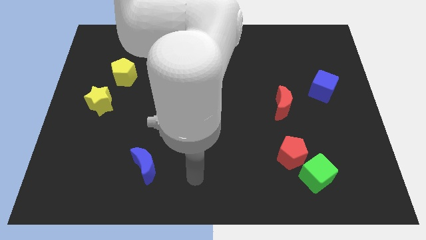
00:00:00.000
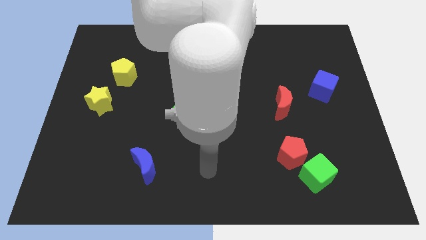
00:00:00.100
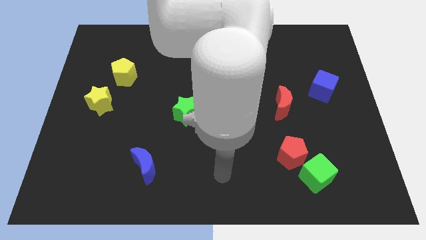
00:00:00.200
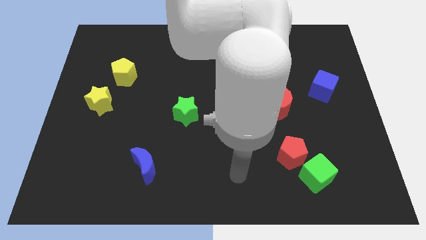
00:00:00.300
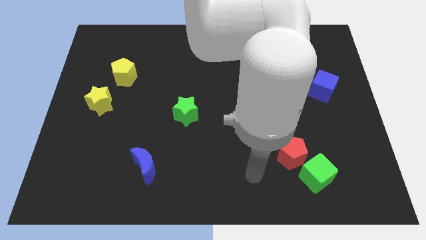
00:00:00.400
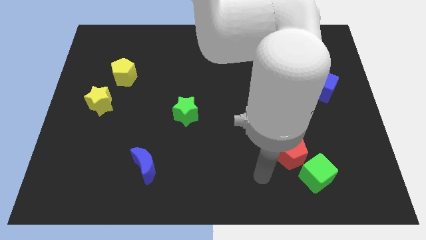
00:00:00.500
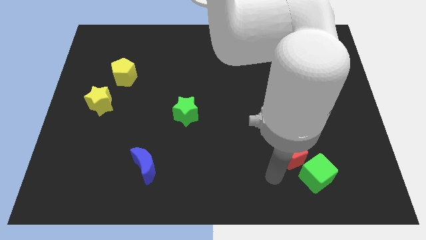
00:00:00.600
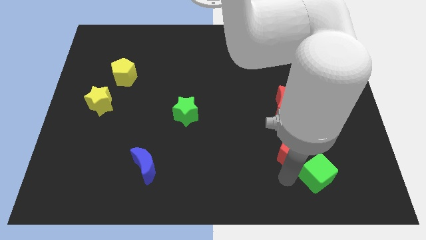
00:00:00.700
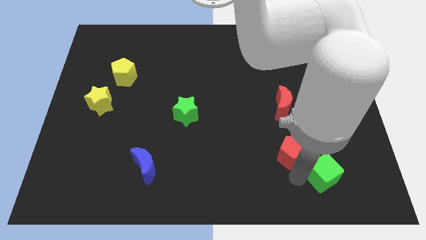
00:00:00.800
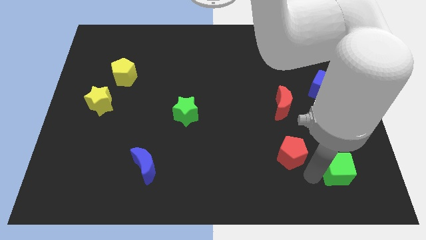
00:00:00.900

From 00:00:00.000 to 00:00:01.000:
separate the red pentagon from the green cube

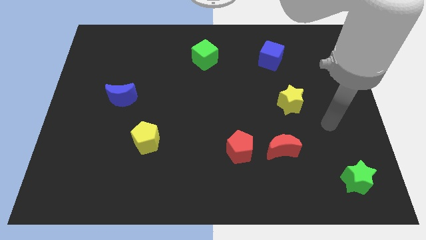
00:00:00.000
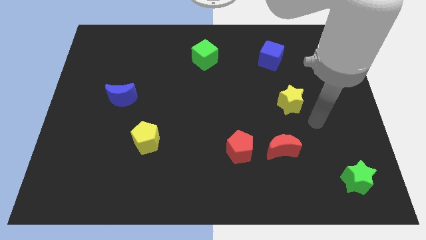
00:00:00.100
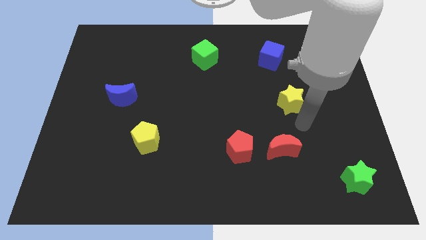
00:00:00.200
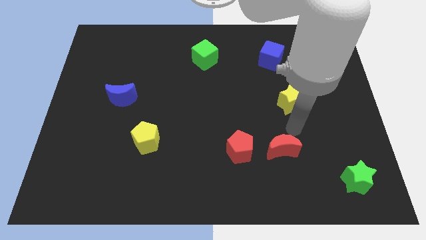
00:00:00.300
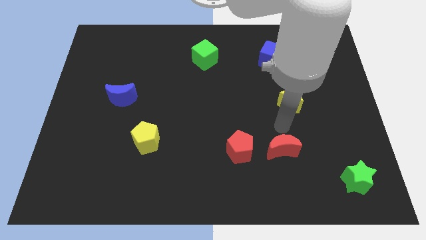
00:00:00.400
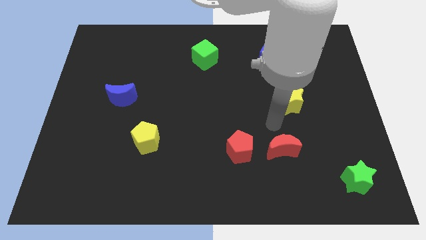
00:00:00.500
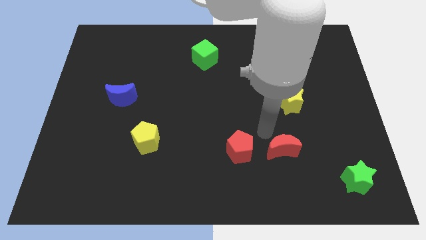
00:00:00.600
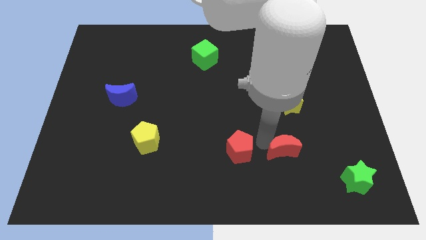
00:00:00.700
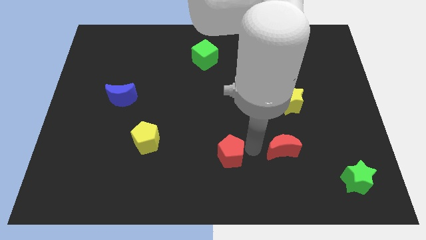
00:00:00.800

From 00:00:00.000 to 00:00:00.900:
move the red moon away from the red pentagon

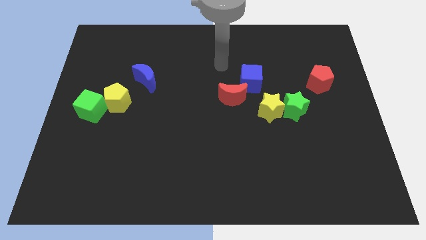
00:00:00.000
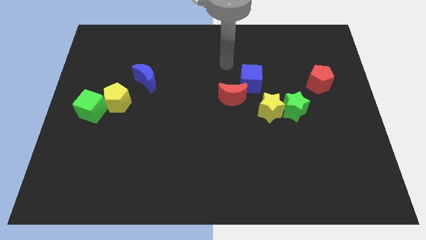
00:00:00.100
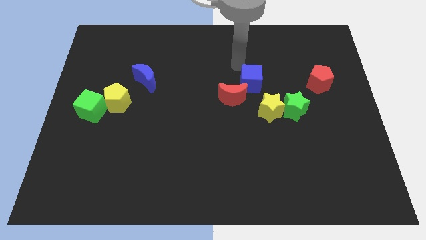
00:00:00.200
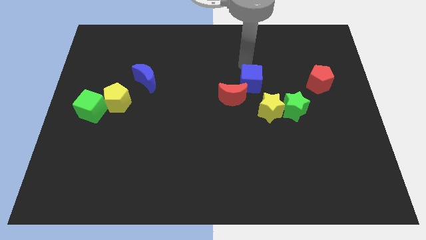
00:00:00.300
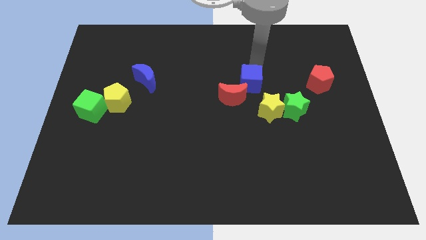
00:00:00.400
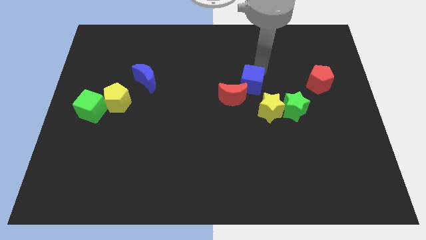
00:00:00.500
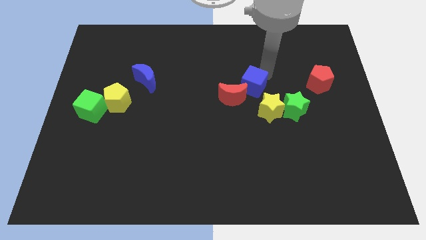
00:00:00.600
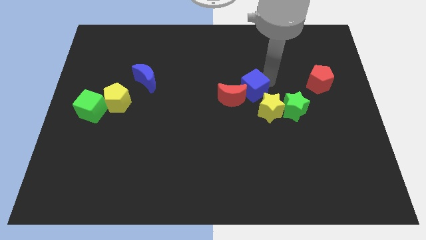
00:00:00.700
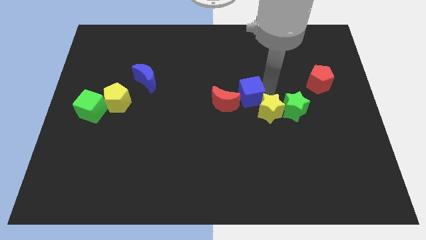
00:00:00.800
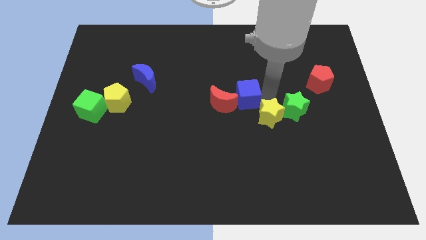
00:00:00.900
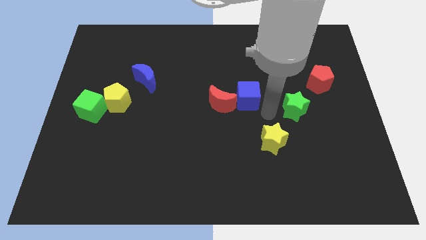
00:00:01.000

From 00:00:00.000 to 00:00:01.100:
pull the green star apart from the yellow star

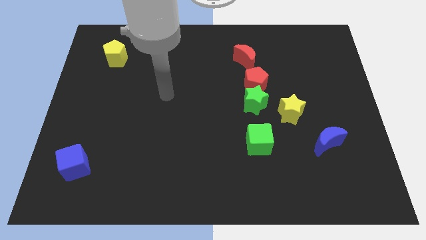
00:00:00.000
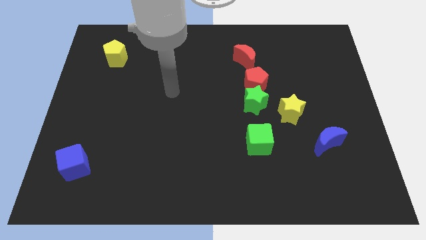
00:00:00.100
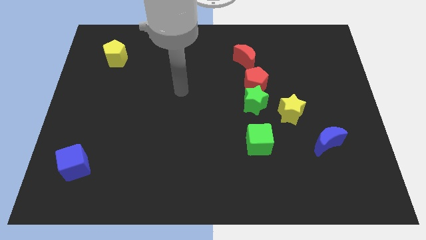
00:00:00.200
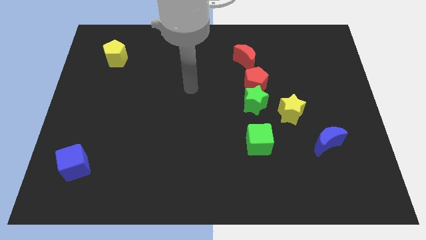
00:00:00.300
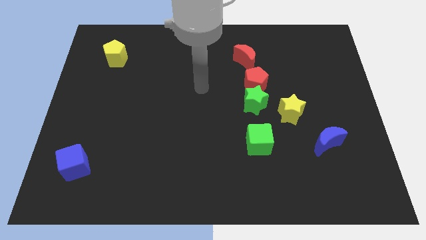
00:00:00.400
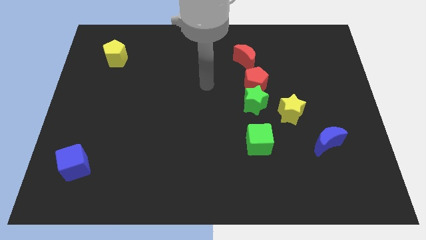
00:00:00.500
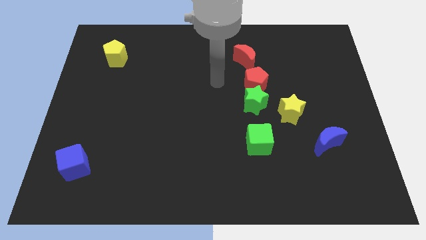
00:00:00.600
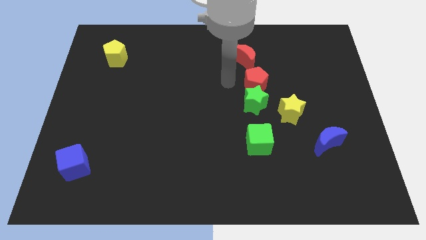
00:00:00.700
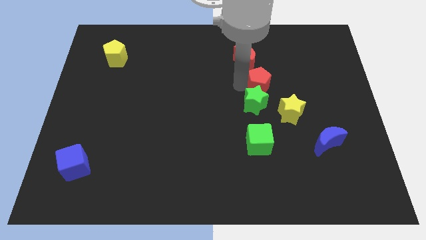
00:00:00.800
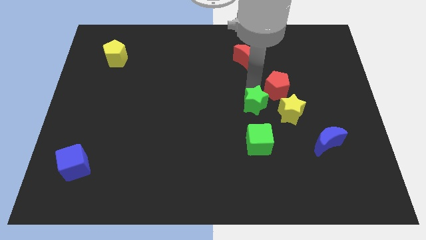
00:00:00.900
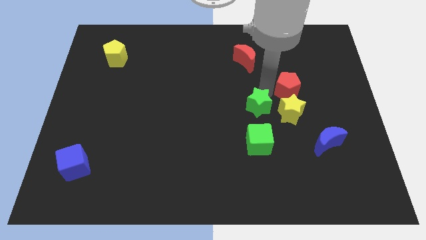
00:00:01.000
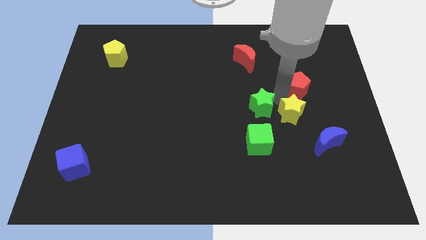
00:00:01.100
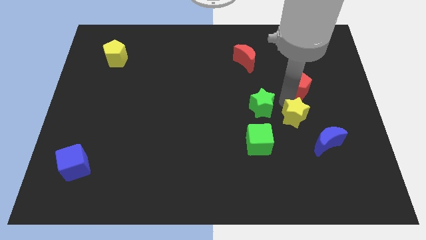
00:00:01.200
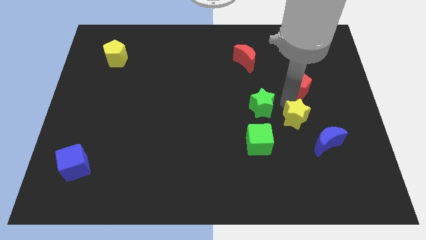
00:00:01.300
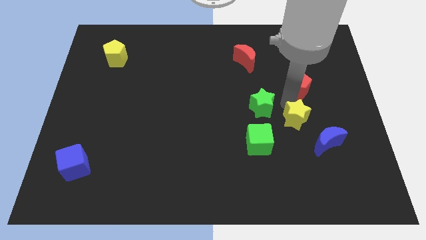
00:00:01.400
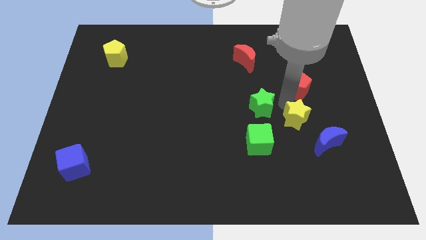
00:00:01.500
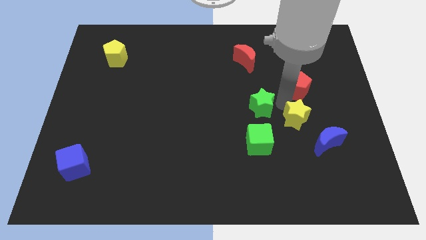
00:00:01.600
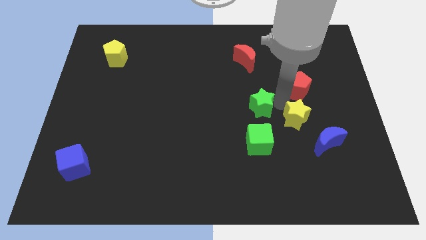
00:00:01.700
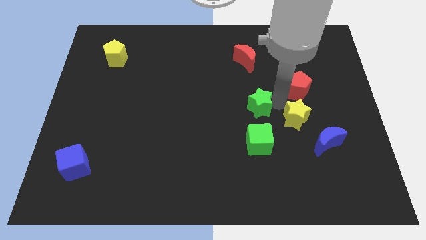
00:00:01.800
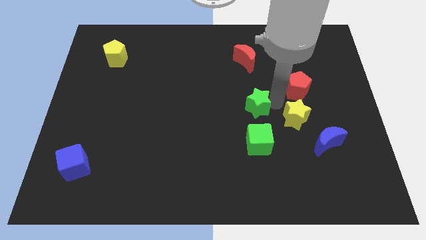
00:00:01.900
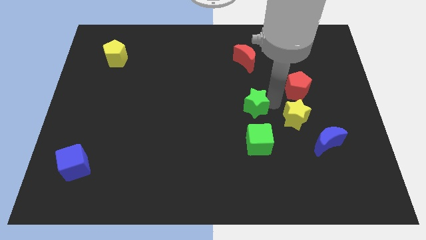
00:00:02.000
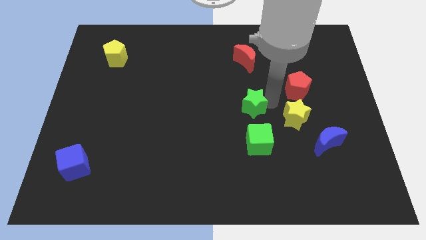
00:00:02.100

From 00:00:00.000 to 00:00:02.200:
pull the green star apart from the red pentagon and yellow star

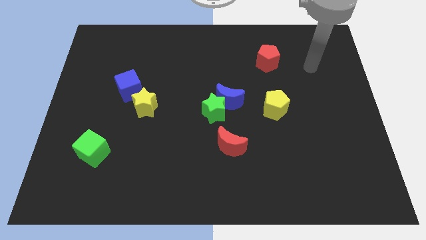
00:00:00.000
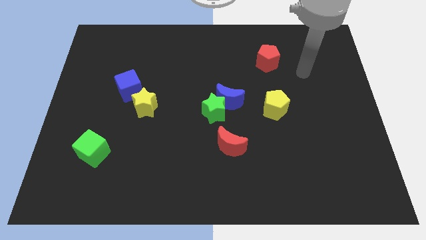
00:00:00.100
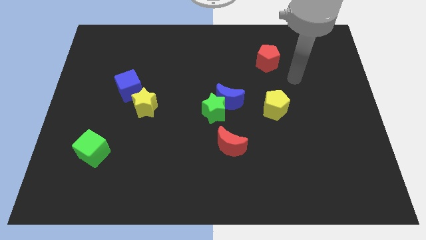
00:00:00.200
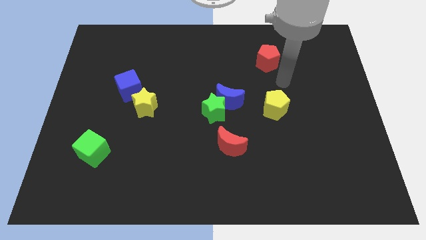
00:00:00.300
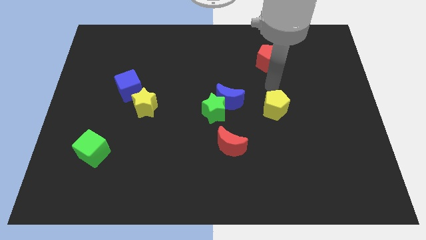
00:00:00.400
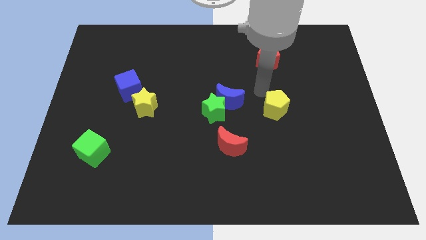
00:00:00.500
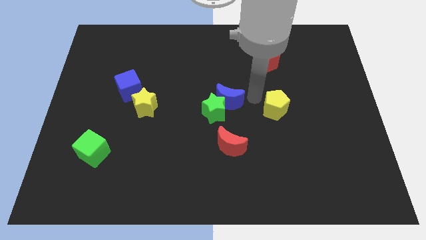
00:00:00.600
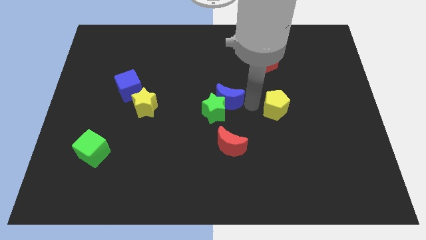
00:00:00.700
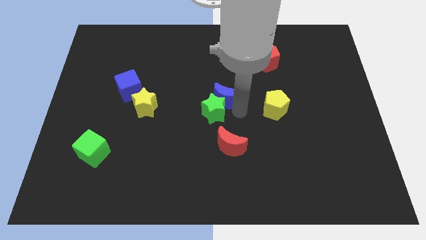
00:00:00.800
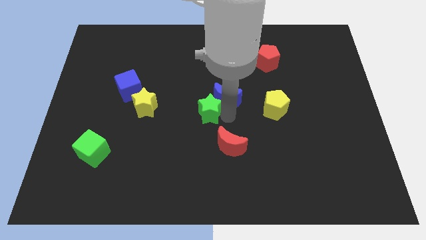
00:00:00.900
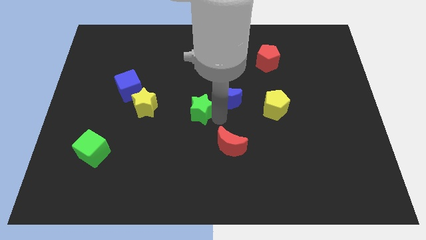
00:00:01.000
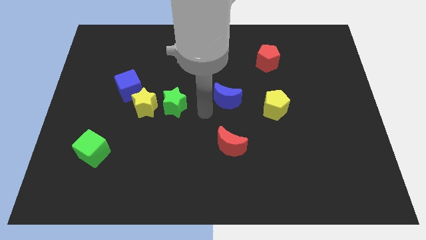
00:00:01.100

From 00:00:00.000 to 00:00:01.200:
separate the blue moon from the green star

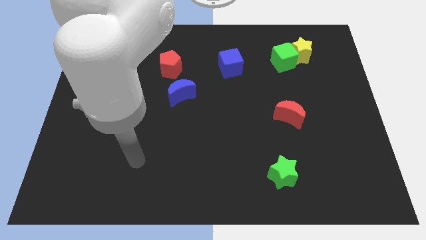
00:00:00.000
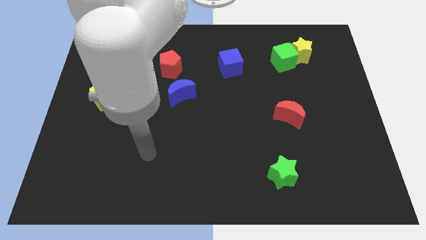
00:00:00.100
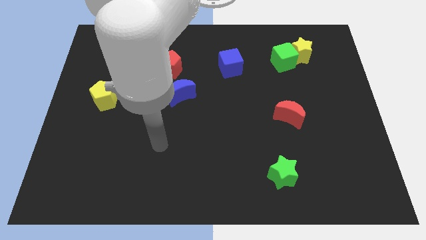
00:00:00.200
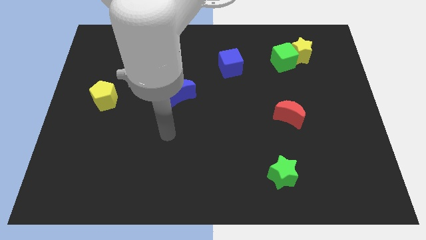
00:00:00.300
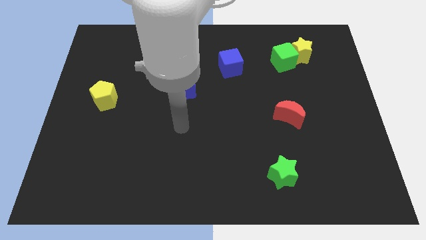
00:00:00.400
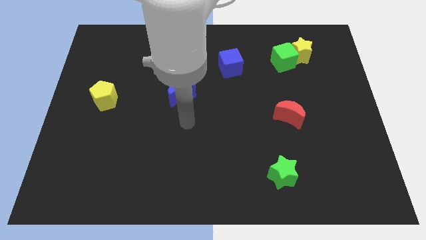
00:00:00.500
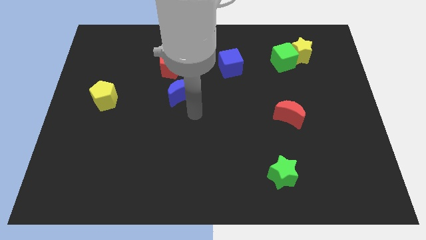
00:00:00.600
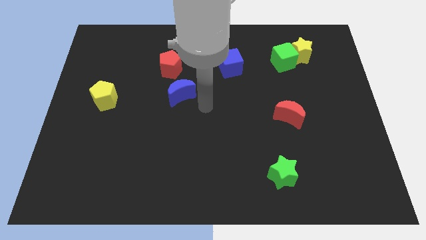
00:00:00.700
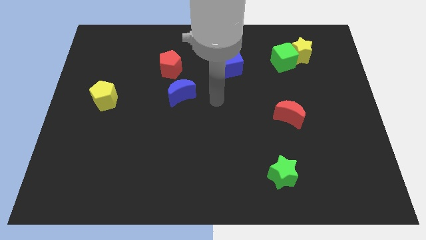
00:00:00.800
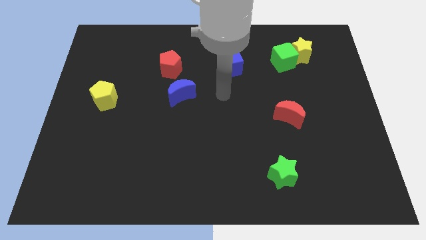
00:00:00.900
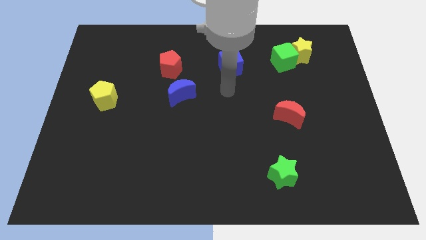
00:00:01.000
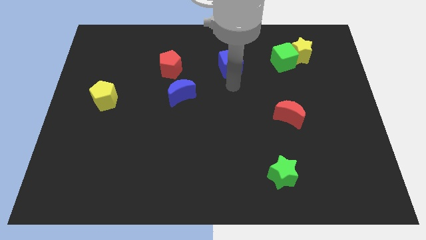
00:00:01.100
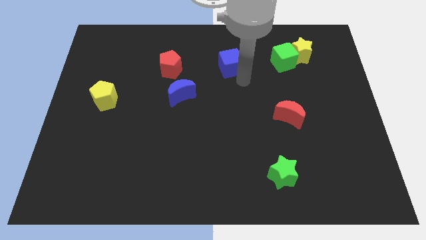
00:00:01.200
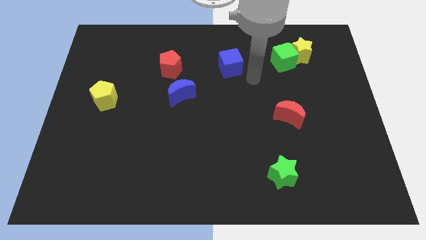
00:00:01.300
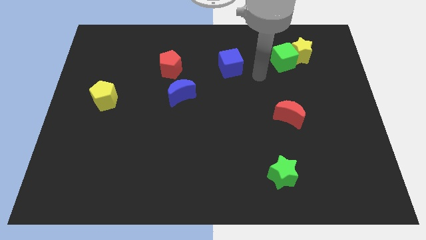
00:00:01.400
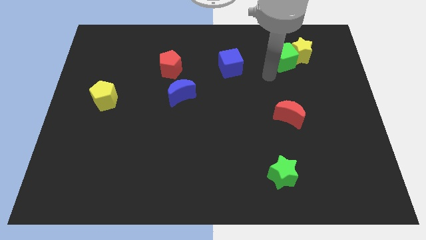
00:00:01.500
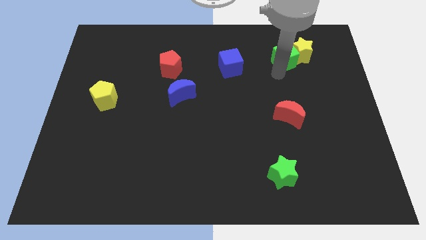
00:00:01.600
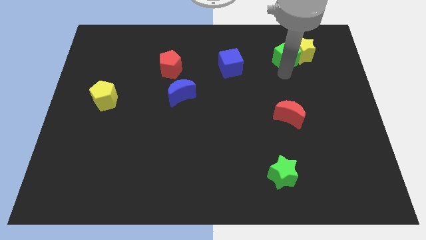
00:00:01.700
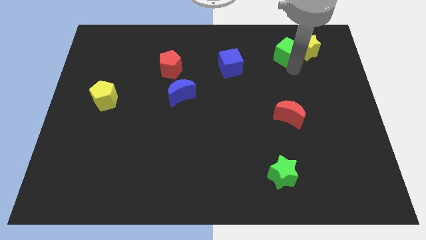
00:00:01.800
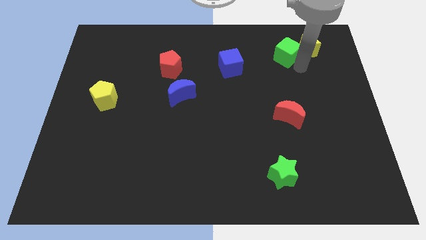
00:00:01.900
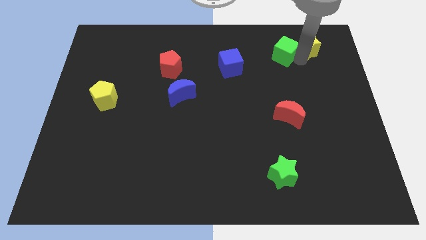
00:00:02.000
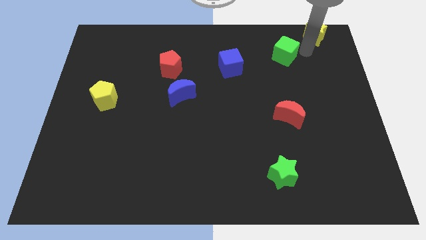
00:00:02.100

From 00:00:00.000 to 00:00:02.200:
separate the green cube from the yellow star

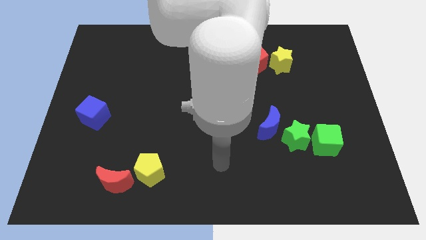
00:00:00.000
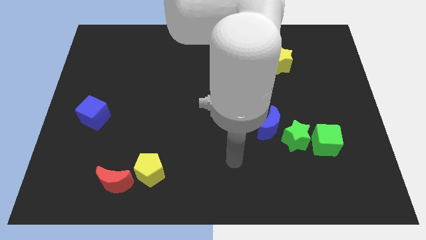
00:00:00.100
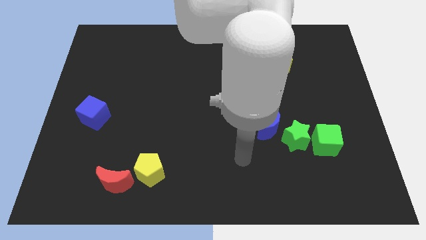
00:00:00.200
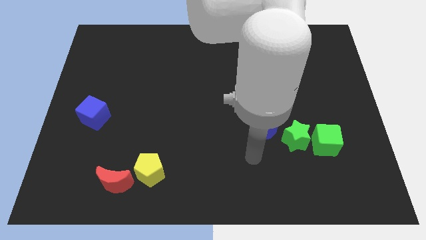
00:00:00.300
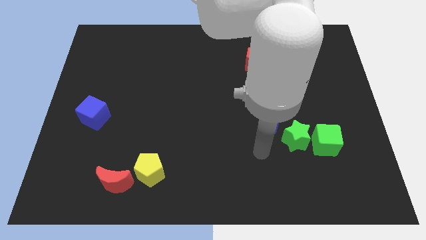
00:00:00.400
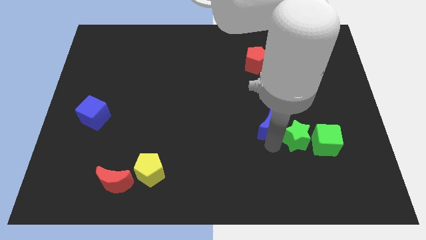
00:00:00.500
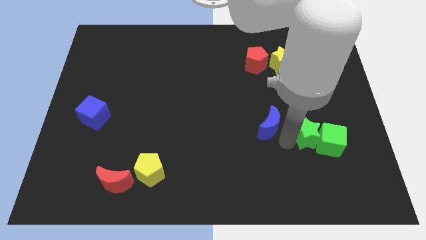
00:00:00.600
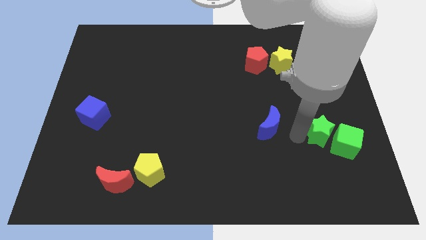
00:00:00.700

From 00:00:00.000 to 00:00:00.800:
move the blue moon away from the green star
